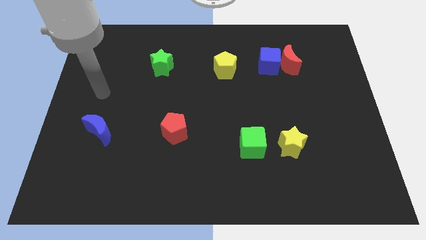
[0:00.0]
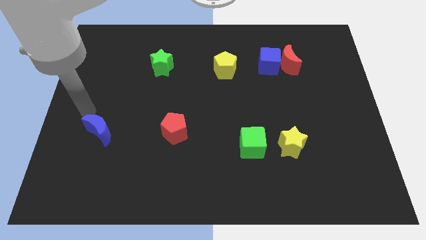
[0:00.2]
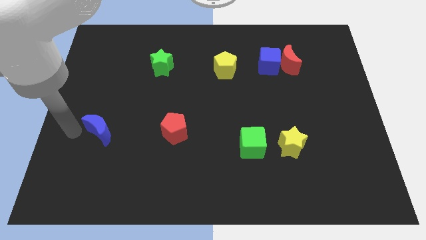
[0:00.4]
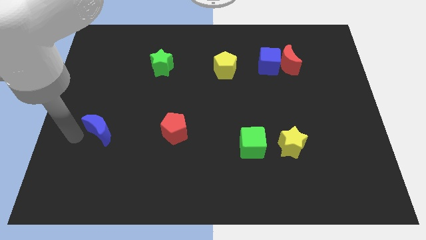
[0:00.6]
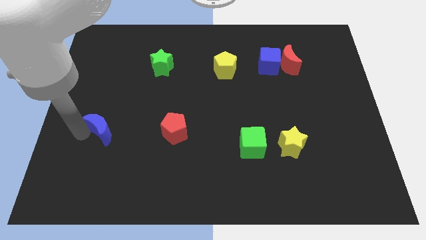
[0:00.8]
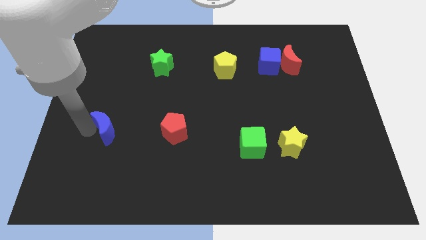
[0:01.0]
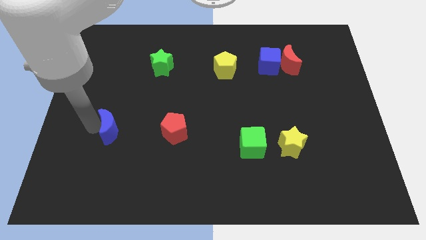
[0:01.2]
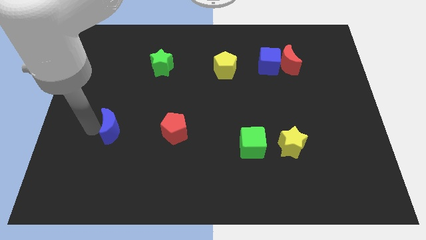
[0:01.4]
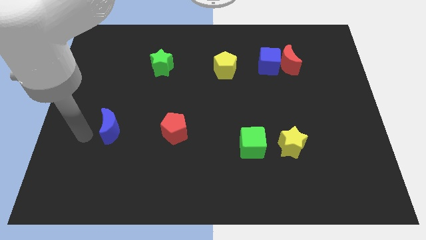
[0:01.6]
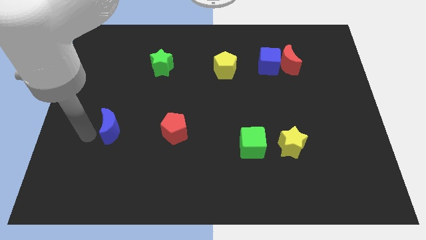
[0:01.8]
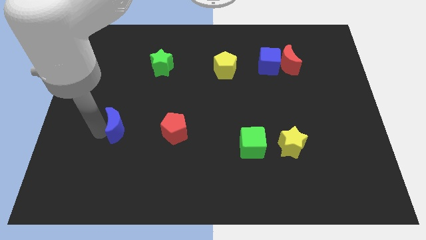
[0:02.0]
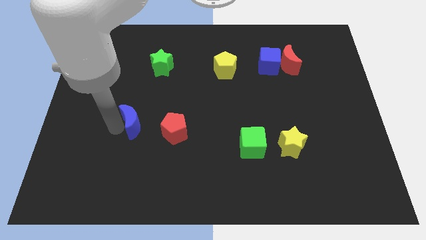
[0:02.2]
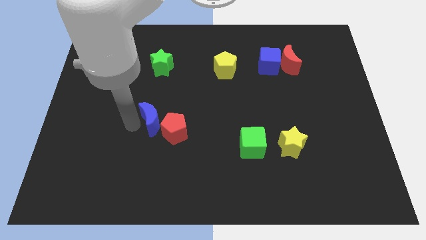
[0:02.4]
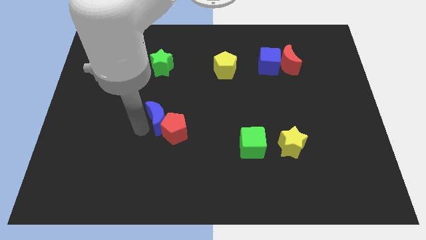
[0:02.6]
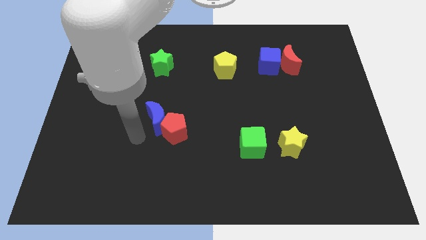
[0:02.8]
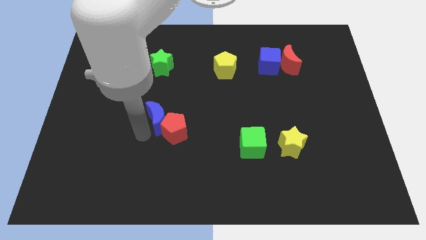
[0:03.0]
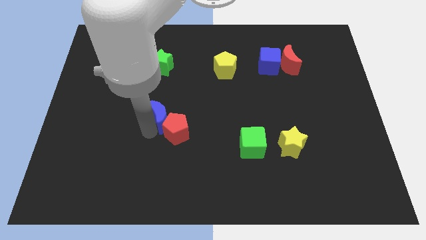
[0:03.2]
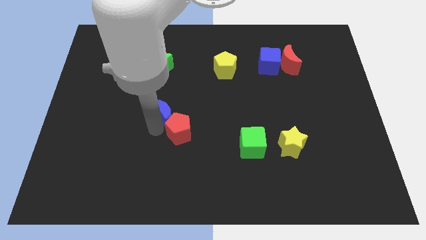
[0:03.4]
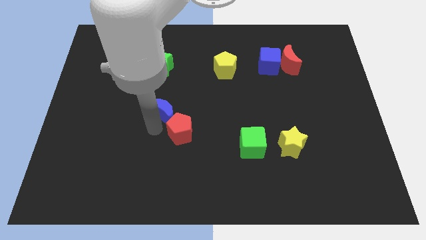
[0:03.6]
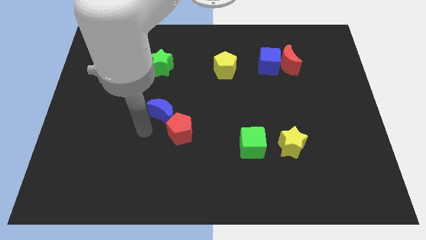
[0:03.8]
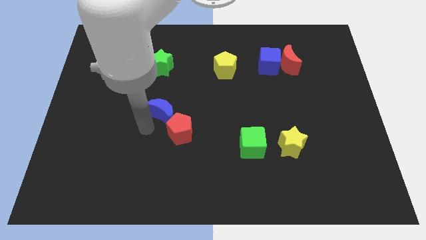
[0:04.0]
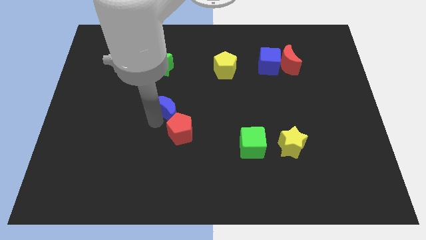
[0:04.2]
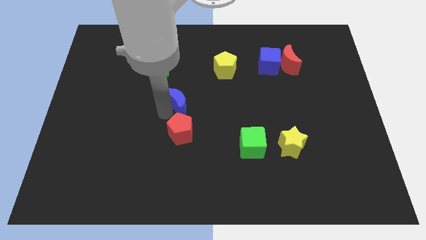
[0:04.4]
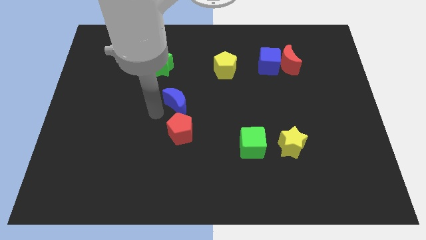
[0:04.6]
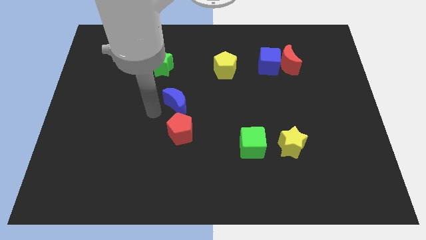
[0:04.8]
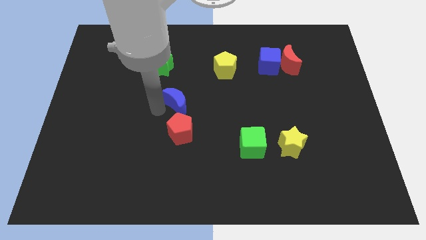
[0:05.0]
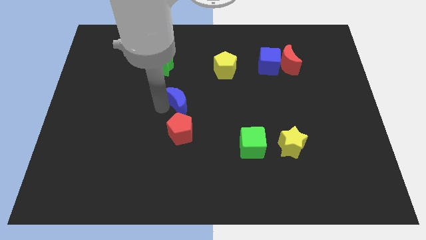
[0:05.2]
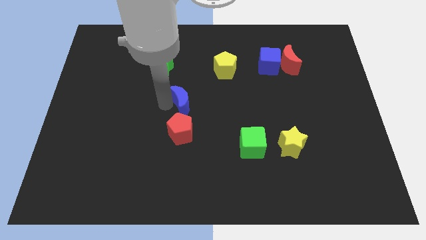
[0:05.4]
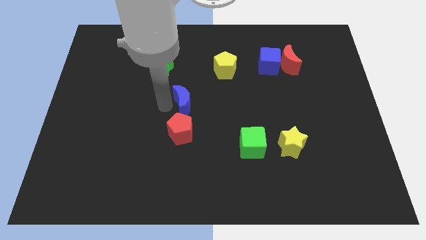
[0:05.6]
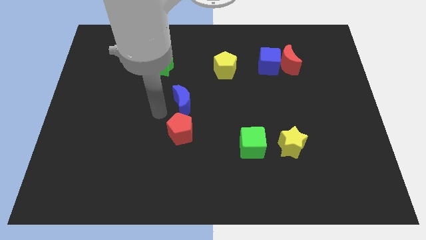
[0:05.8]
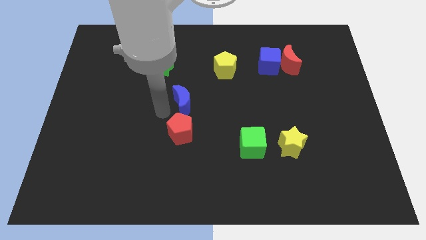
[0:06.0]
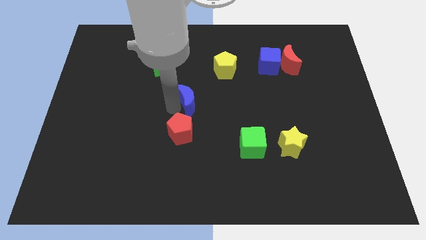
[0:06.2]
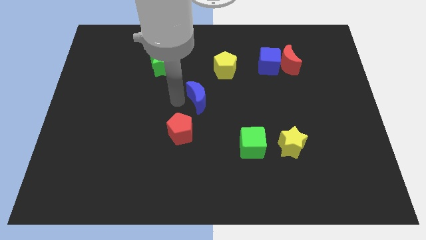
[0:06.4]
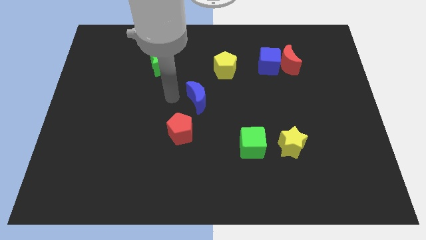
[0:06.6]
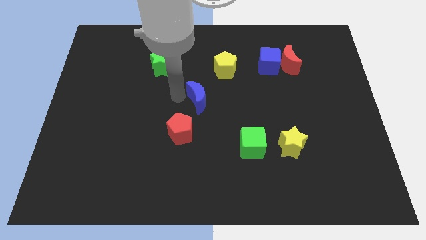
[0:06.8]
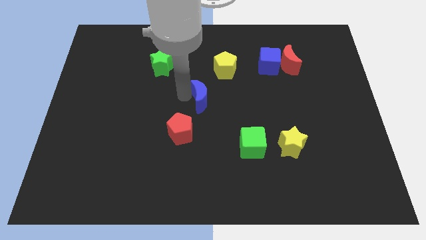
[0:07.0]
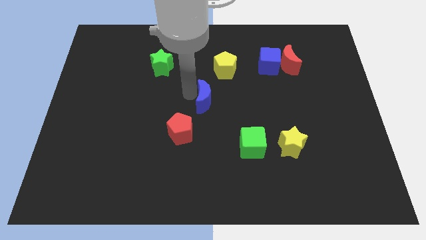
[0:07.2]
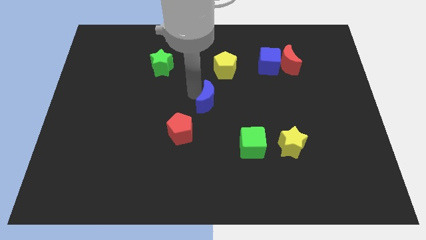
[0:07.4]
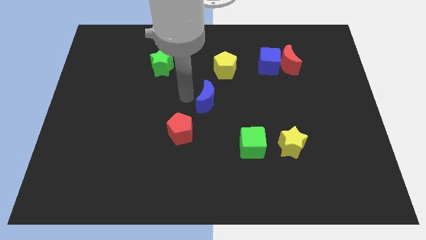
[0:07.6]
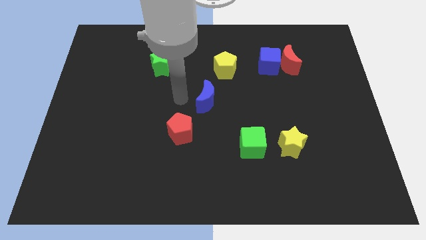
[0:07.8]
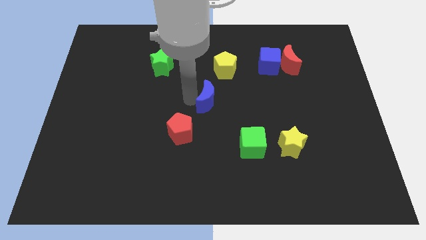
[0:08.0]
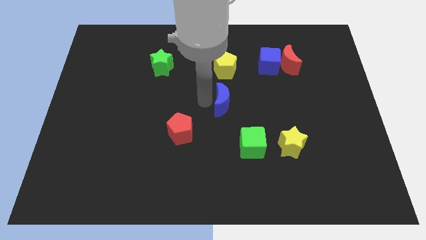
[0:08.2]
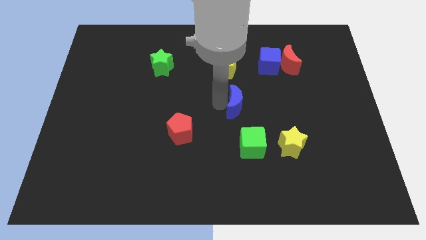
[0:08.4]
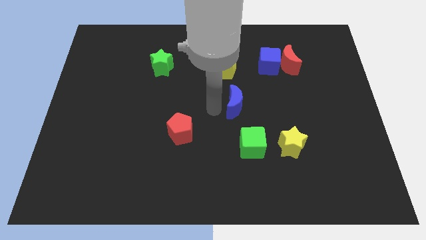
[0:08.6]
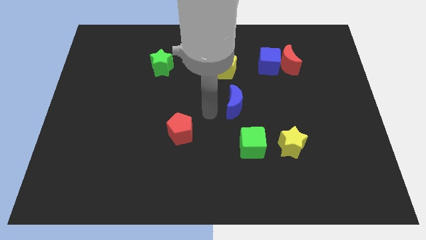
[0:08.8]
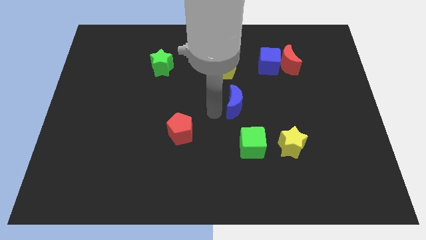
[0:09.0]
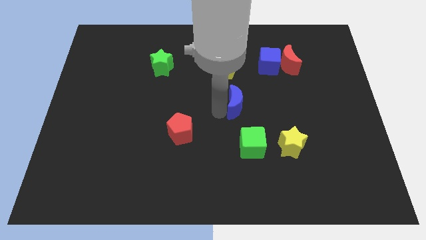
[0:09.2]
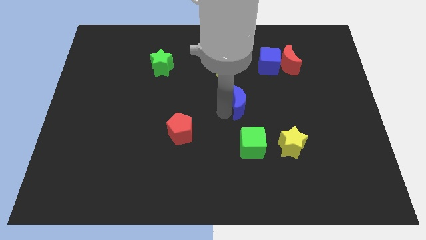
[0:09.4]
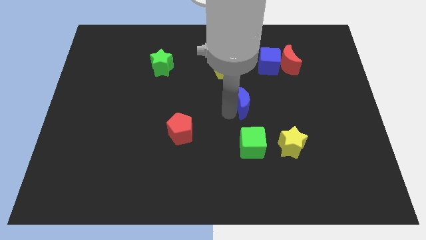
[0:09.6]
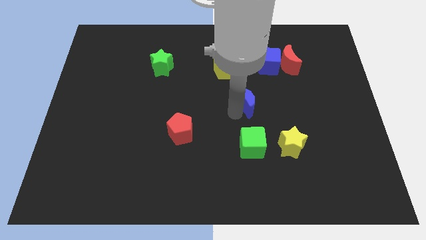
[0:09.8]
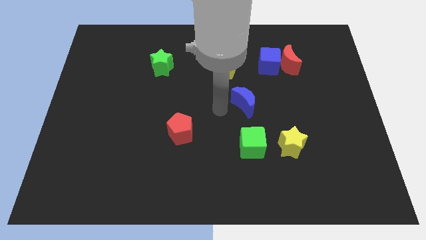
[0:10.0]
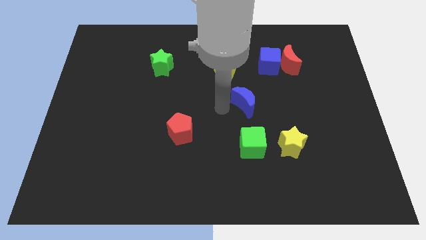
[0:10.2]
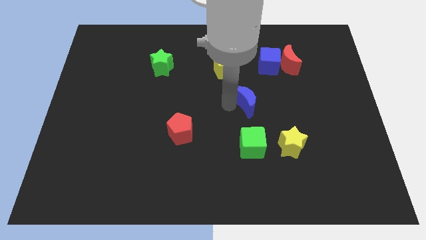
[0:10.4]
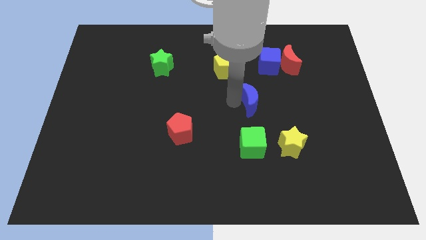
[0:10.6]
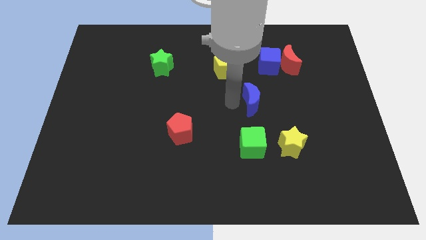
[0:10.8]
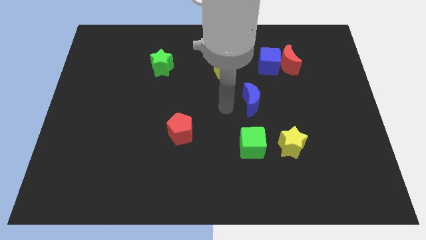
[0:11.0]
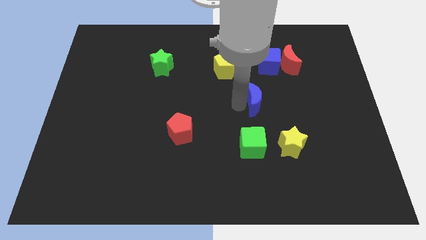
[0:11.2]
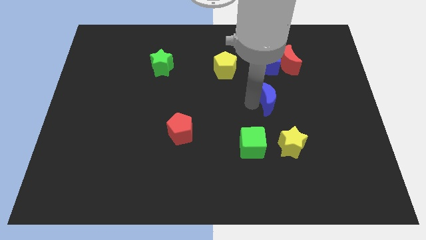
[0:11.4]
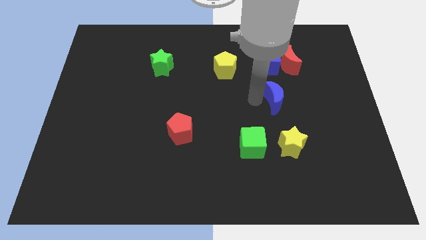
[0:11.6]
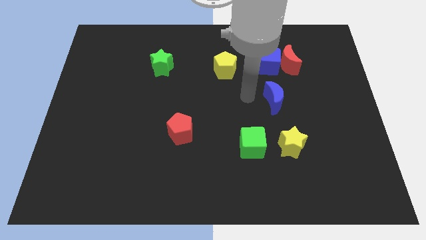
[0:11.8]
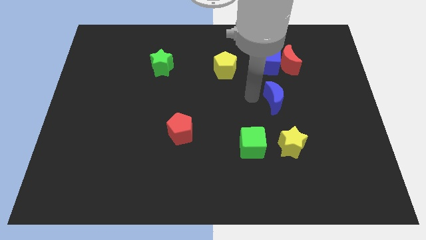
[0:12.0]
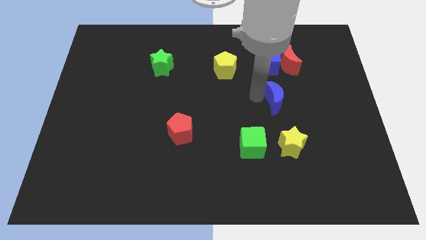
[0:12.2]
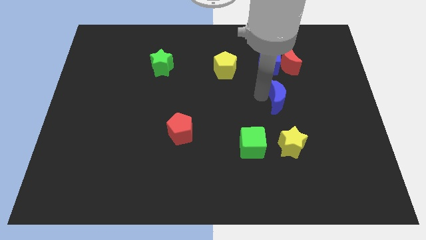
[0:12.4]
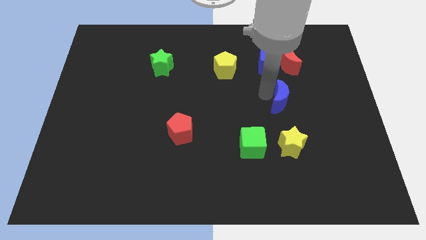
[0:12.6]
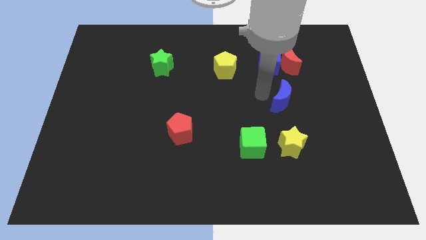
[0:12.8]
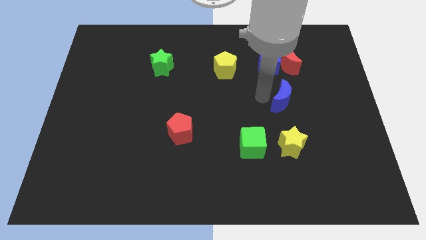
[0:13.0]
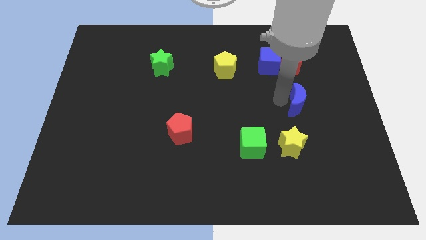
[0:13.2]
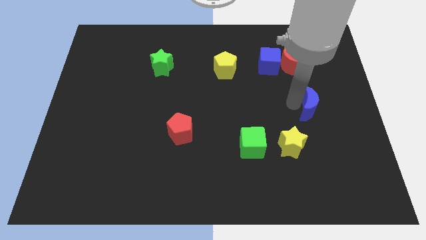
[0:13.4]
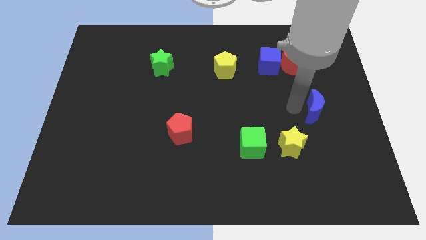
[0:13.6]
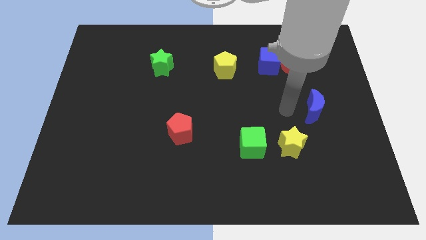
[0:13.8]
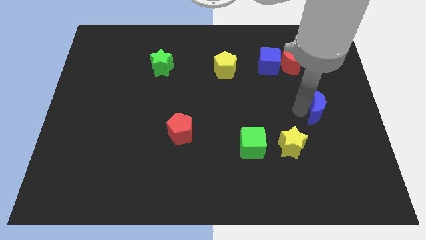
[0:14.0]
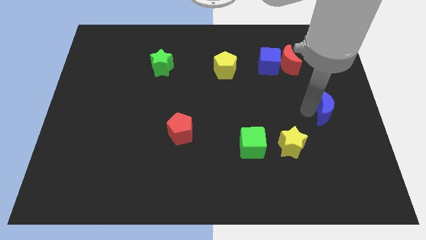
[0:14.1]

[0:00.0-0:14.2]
push the blue moon to the right side of the board
